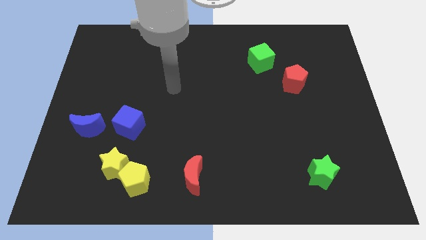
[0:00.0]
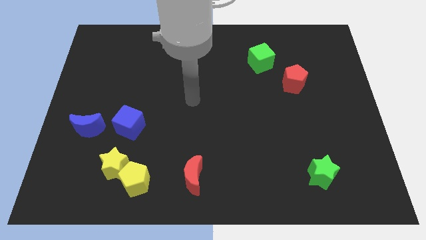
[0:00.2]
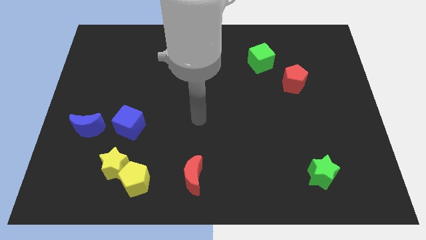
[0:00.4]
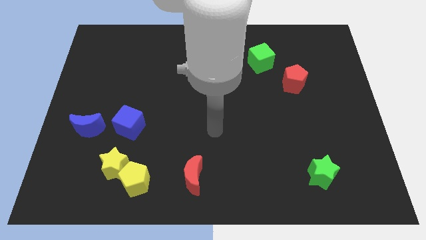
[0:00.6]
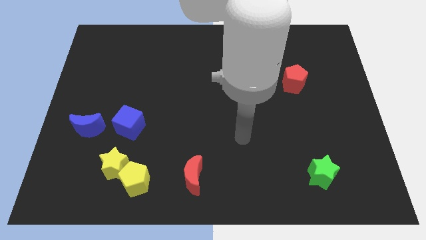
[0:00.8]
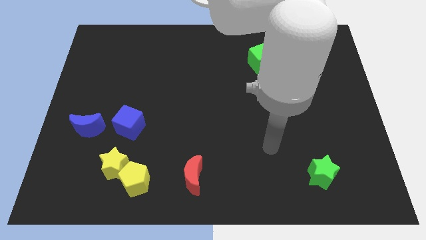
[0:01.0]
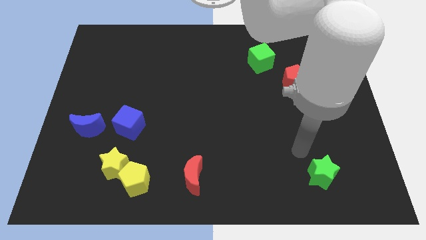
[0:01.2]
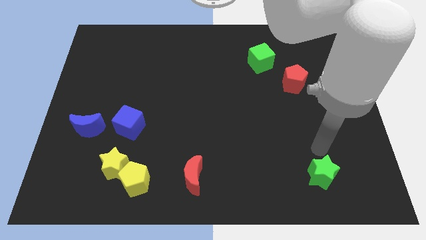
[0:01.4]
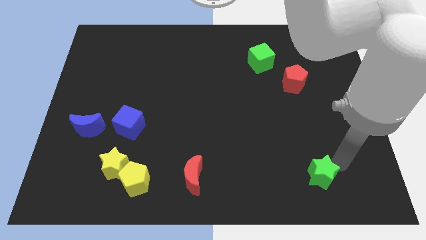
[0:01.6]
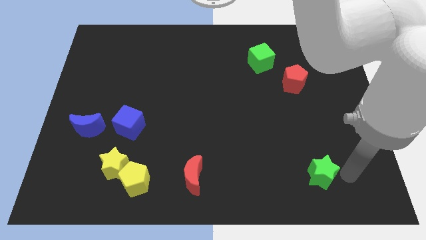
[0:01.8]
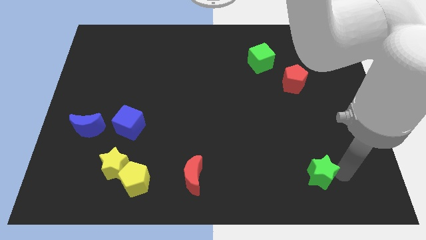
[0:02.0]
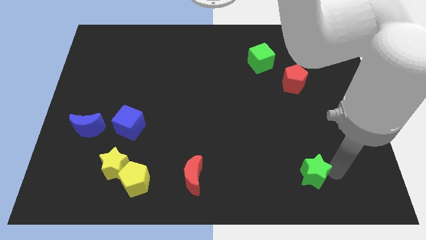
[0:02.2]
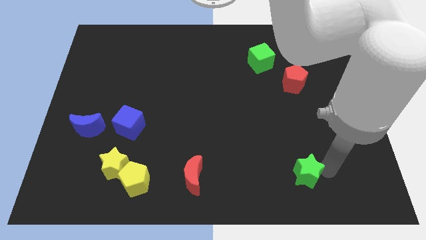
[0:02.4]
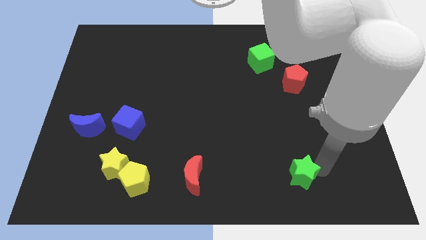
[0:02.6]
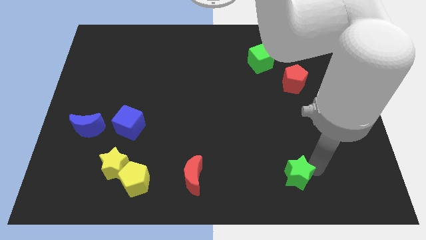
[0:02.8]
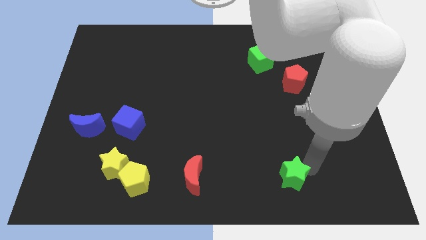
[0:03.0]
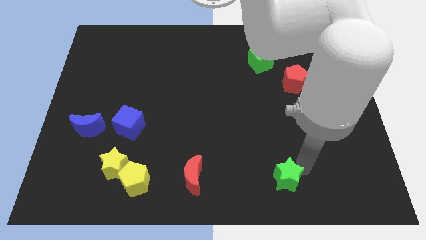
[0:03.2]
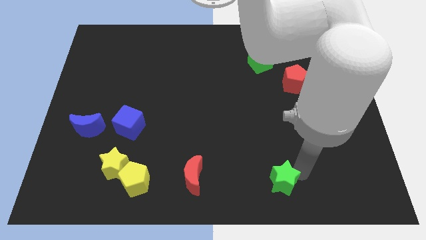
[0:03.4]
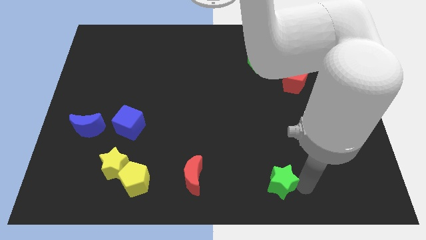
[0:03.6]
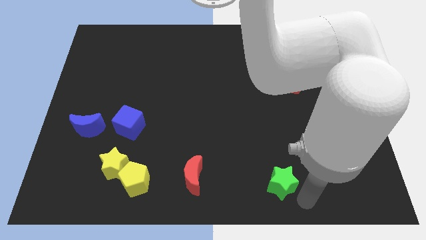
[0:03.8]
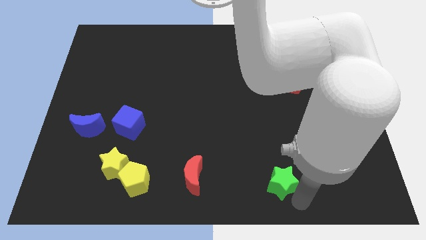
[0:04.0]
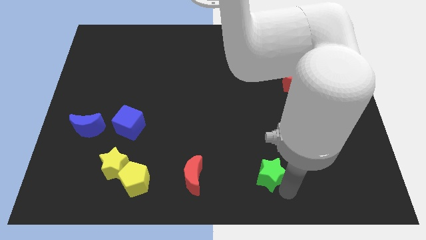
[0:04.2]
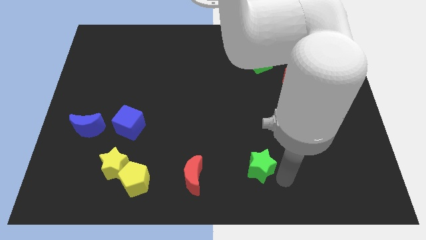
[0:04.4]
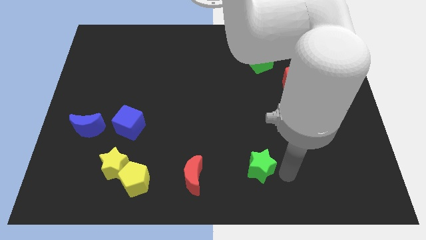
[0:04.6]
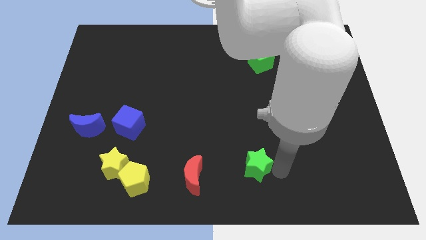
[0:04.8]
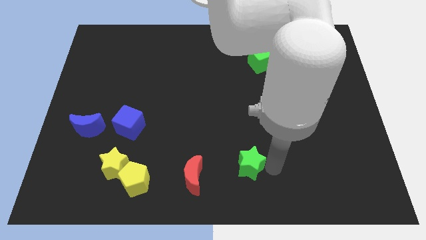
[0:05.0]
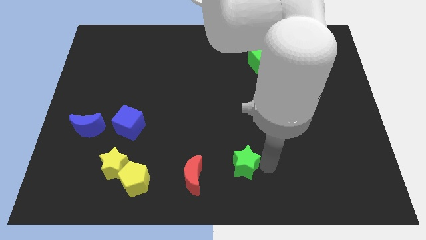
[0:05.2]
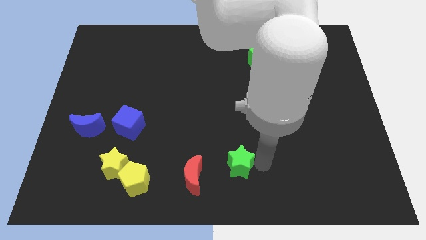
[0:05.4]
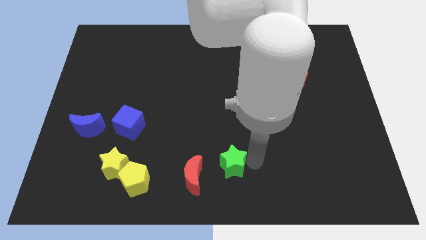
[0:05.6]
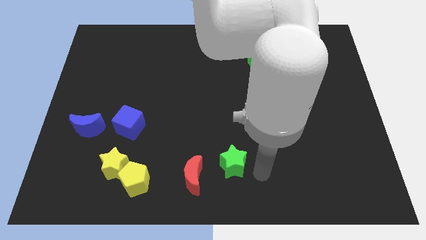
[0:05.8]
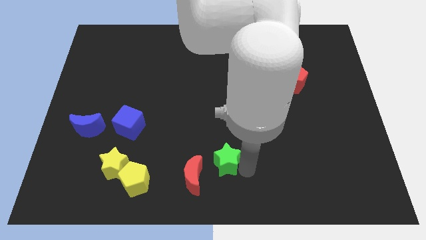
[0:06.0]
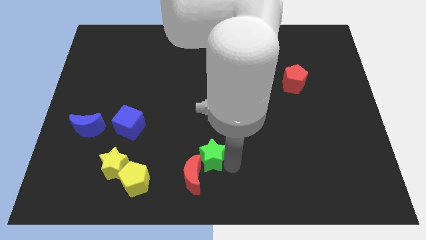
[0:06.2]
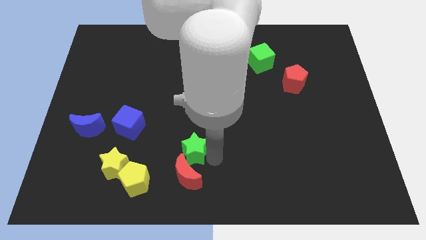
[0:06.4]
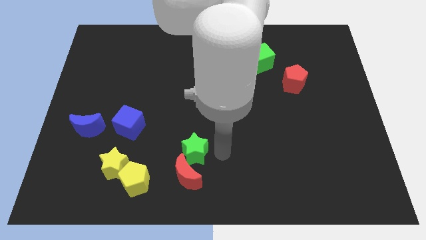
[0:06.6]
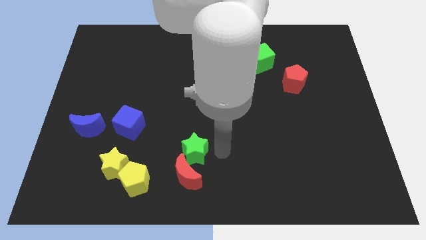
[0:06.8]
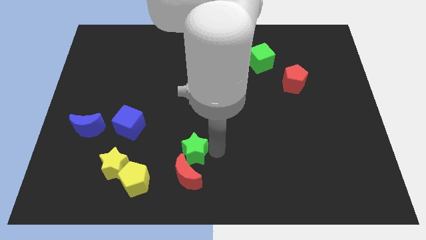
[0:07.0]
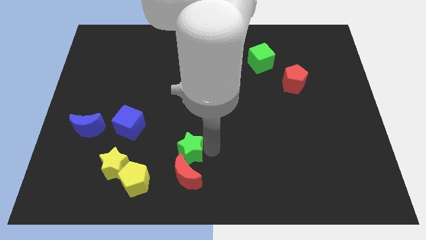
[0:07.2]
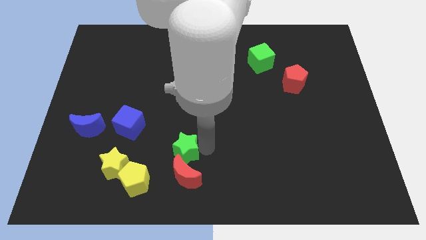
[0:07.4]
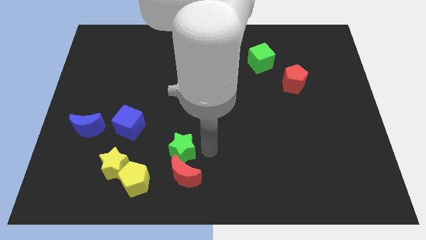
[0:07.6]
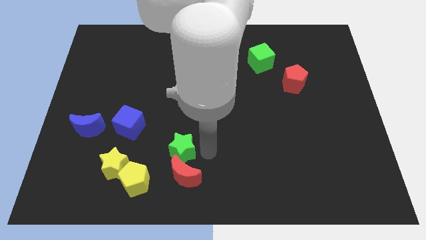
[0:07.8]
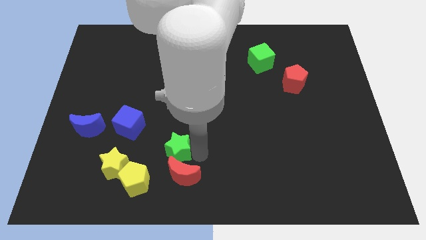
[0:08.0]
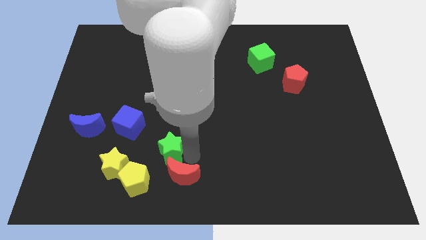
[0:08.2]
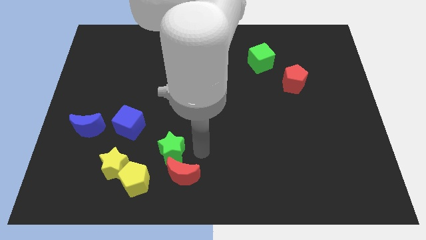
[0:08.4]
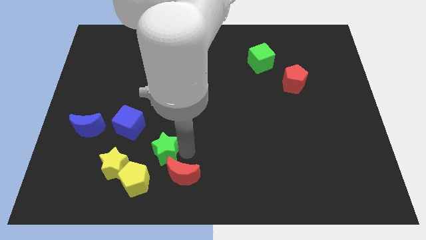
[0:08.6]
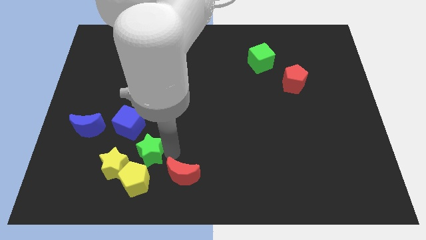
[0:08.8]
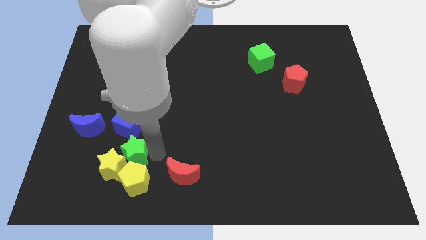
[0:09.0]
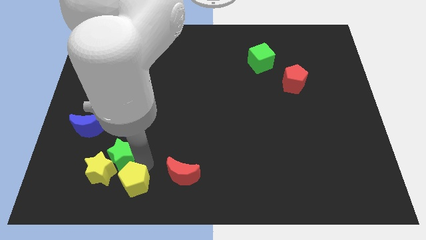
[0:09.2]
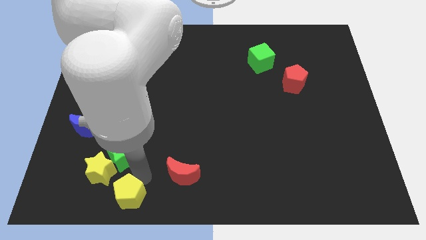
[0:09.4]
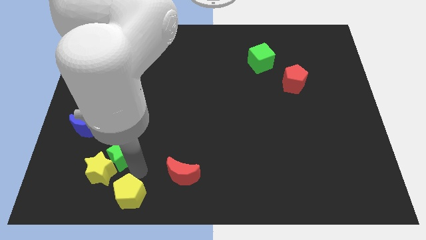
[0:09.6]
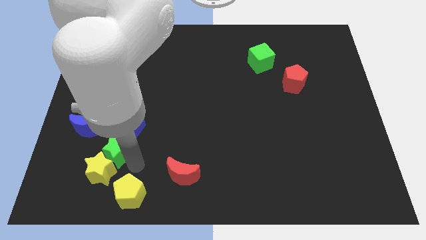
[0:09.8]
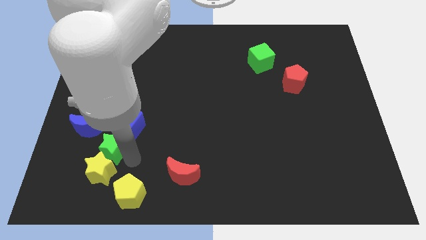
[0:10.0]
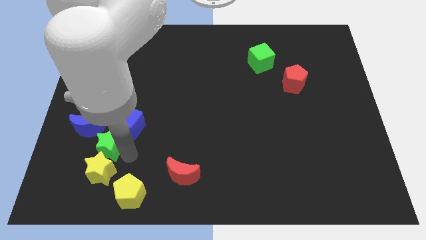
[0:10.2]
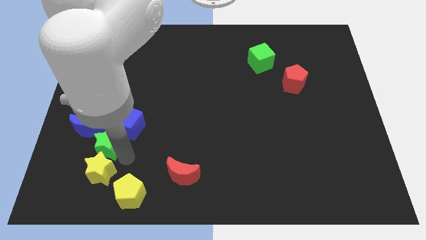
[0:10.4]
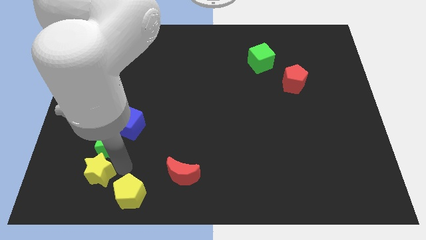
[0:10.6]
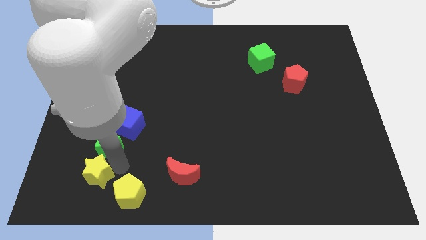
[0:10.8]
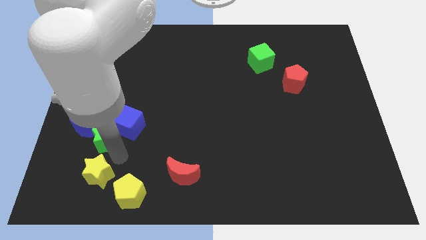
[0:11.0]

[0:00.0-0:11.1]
push the green star towards the blue moon

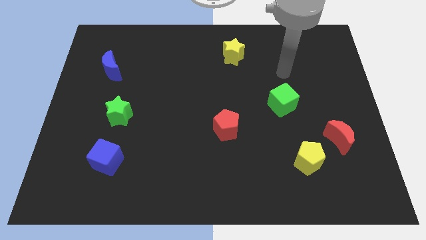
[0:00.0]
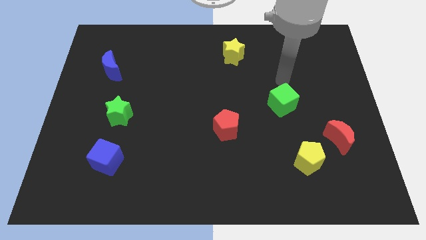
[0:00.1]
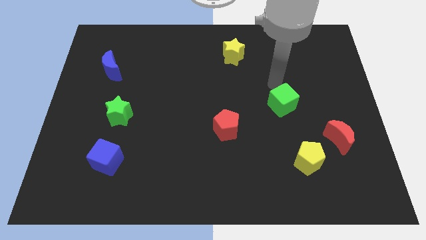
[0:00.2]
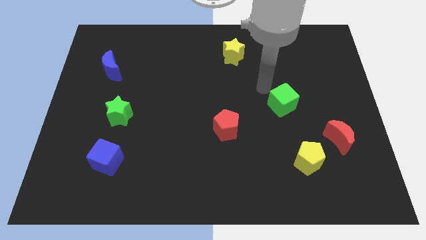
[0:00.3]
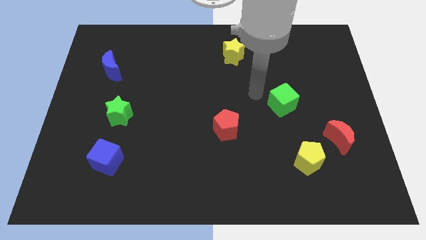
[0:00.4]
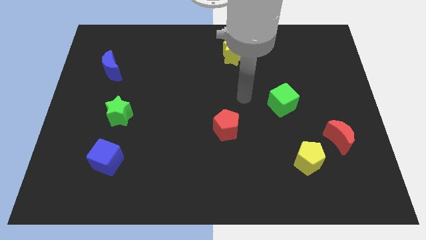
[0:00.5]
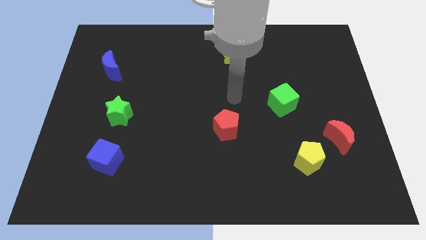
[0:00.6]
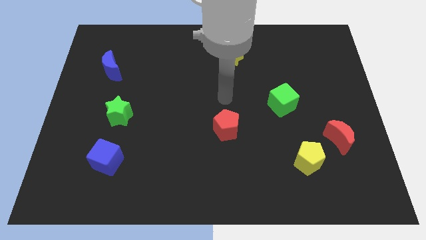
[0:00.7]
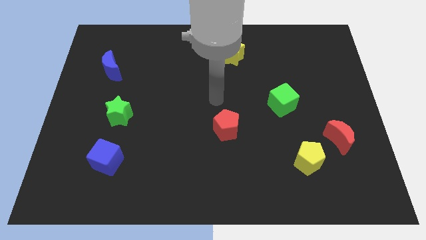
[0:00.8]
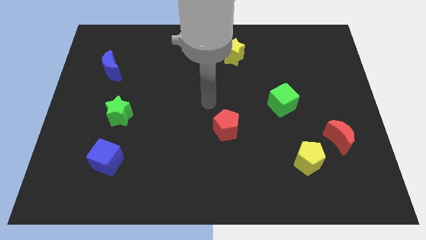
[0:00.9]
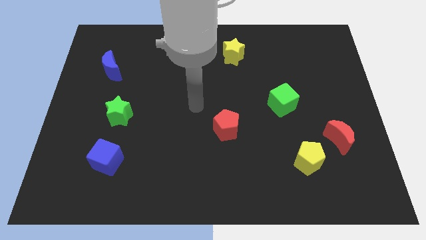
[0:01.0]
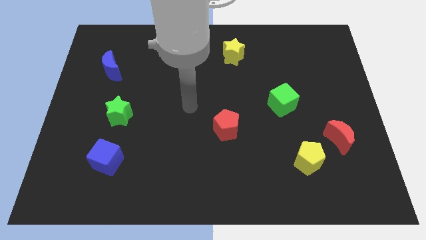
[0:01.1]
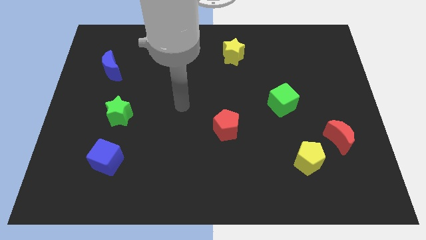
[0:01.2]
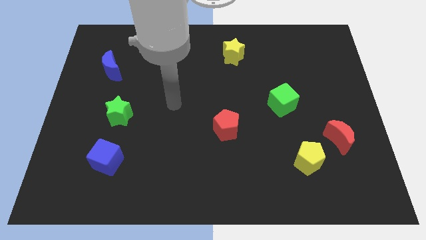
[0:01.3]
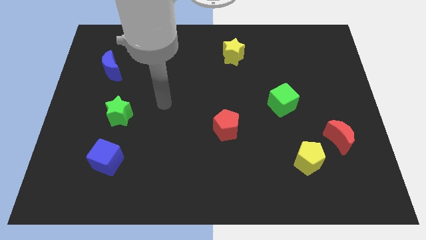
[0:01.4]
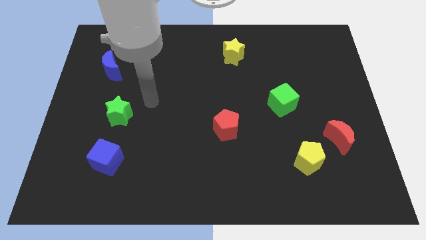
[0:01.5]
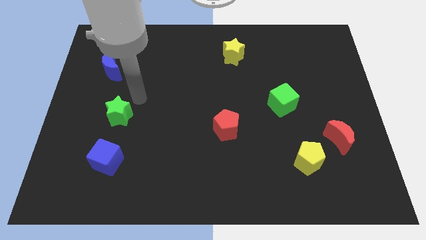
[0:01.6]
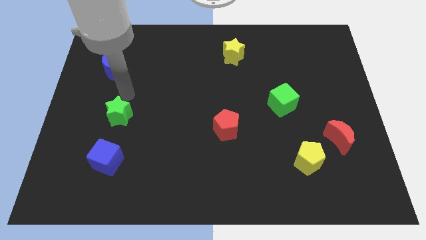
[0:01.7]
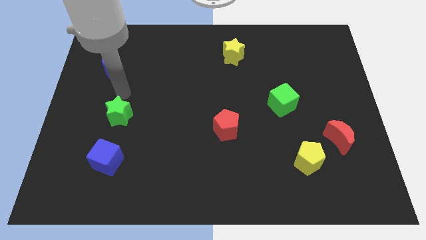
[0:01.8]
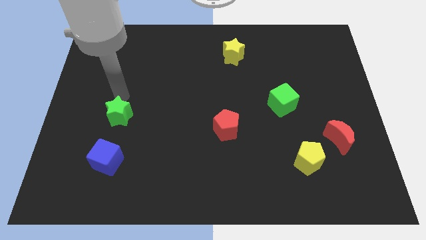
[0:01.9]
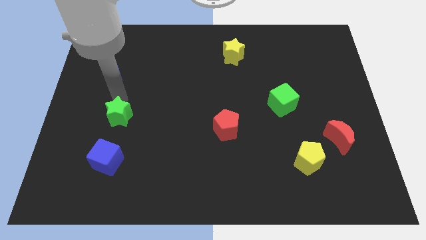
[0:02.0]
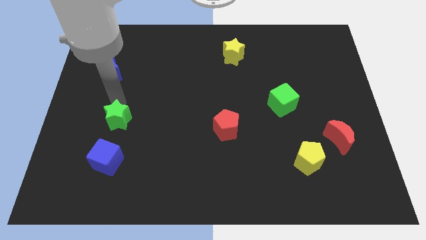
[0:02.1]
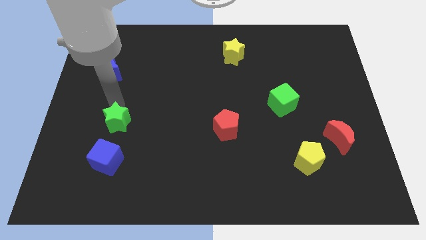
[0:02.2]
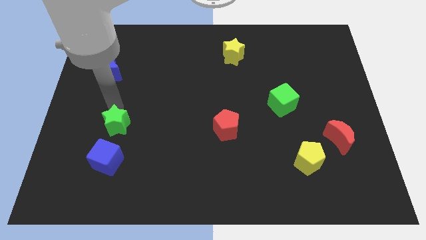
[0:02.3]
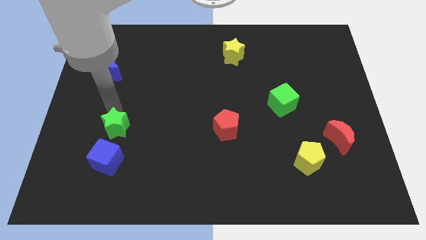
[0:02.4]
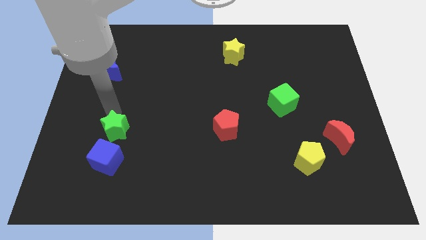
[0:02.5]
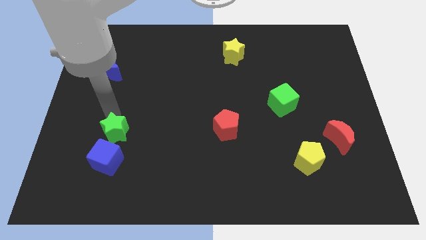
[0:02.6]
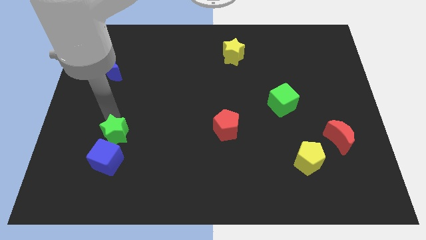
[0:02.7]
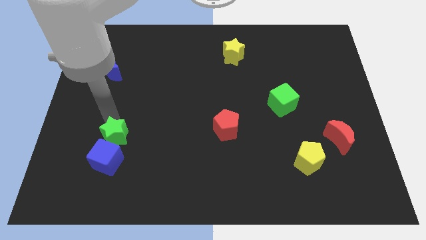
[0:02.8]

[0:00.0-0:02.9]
push the green star next to the blue cube
